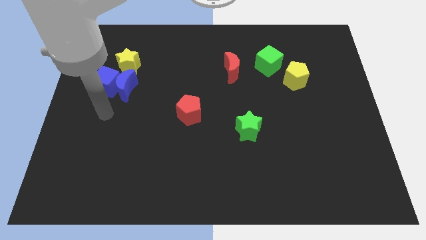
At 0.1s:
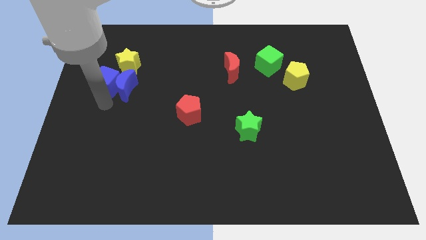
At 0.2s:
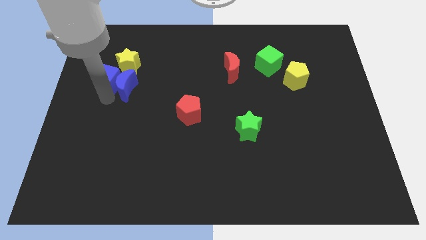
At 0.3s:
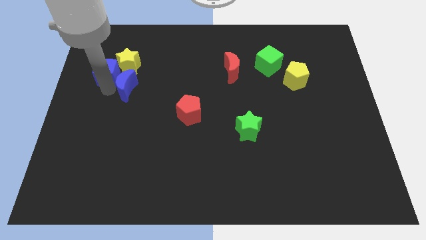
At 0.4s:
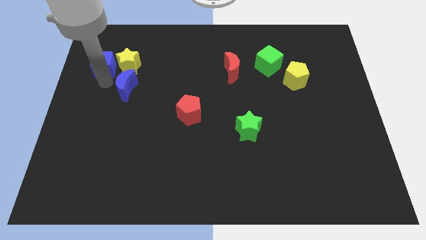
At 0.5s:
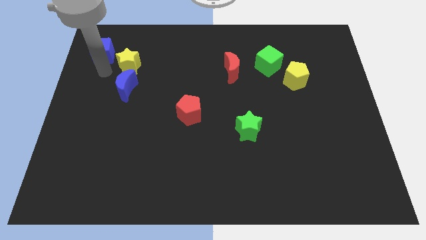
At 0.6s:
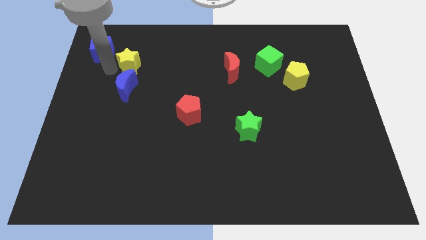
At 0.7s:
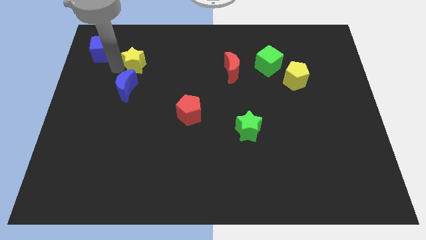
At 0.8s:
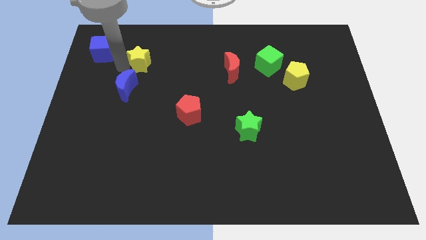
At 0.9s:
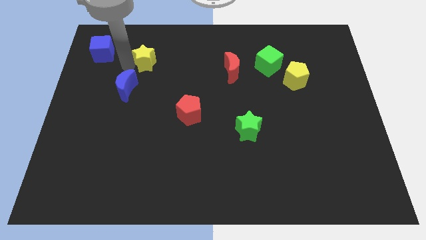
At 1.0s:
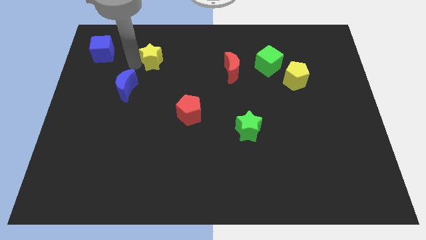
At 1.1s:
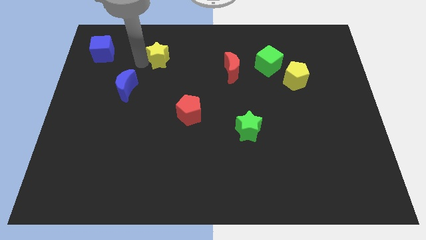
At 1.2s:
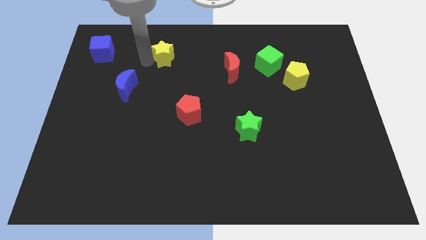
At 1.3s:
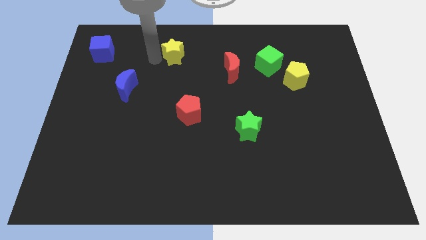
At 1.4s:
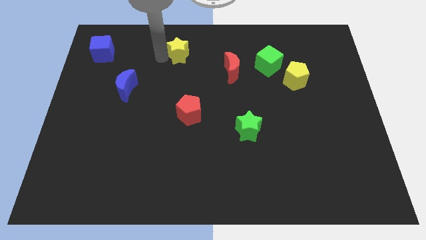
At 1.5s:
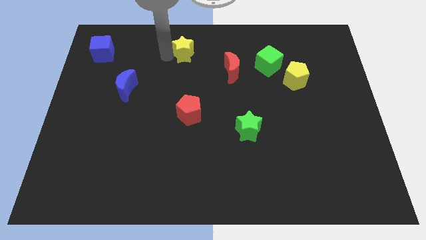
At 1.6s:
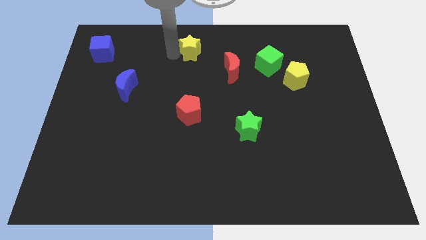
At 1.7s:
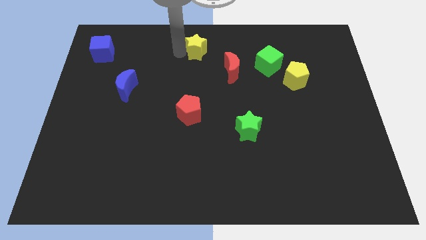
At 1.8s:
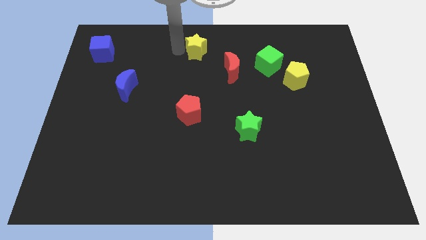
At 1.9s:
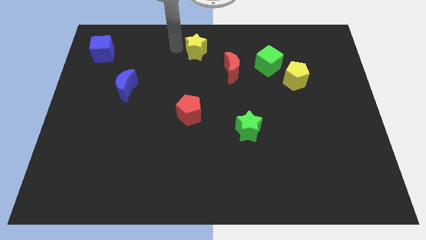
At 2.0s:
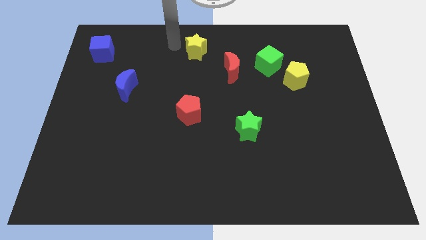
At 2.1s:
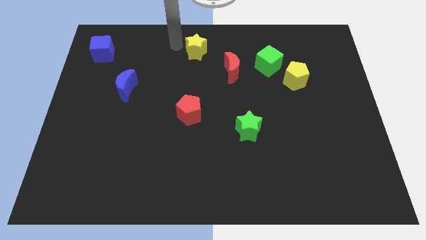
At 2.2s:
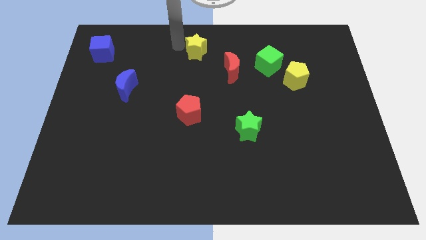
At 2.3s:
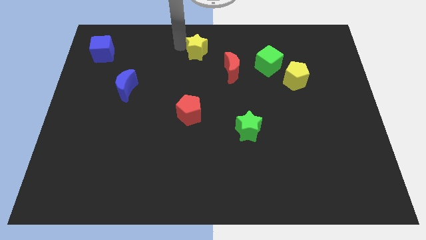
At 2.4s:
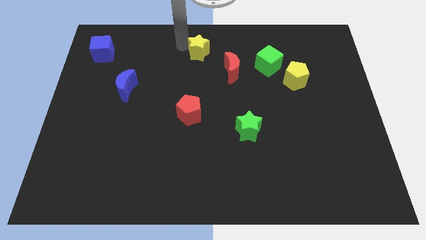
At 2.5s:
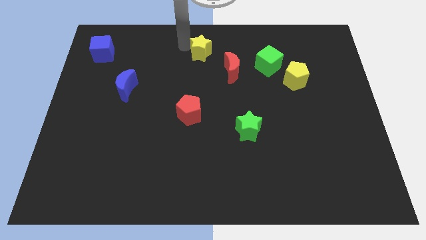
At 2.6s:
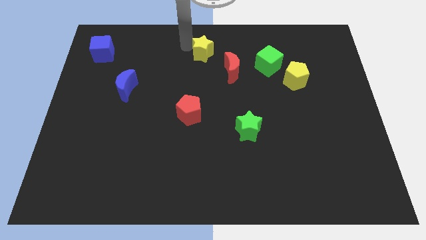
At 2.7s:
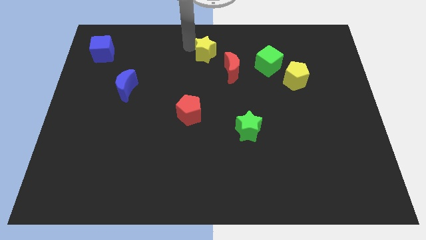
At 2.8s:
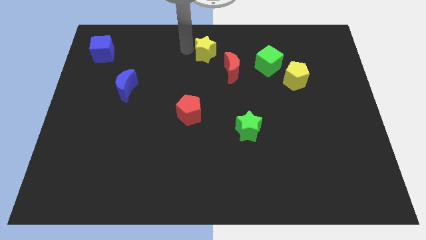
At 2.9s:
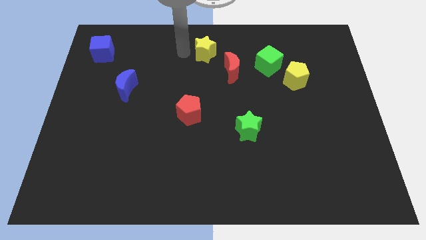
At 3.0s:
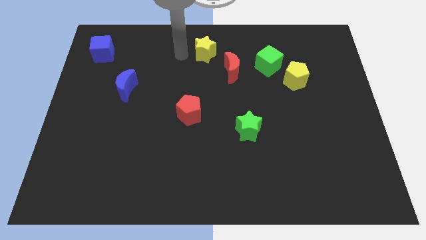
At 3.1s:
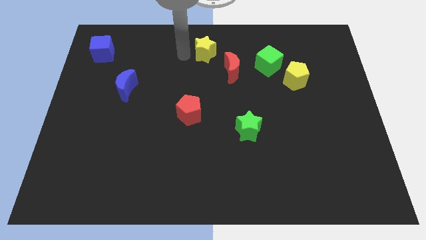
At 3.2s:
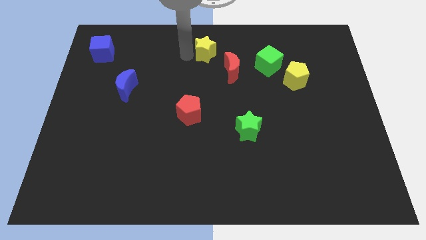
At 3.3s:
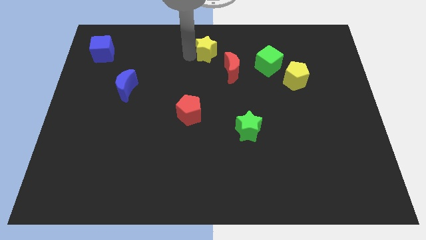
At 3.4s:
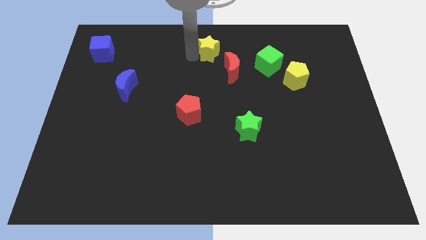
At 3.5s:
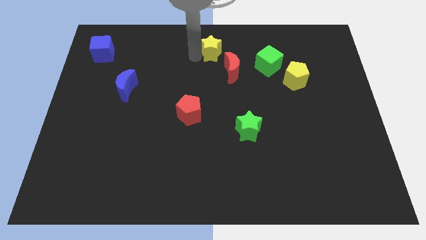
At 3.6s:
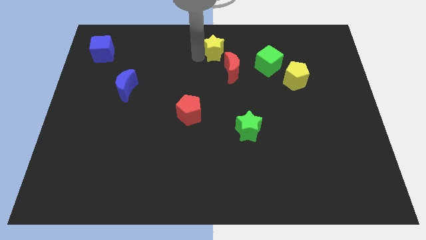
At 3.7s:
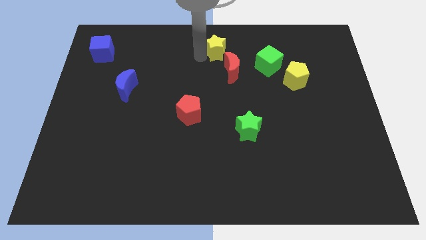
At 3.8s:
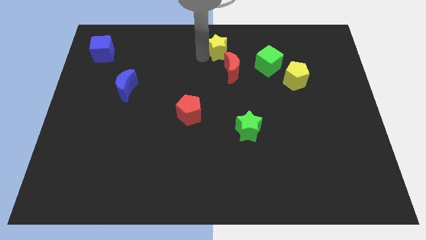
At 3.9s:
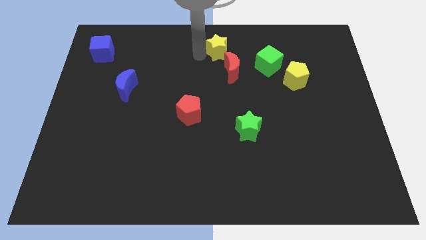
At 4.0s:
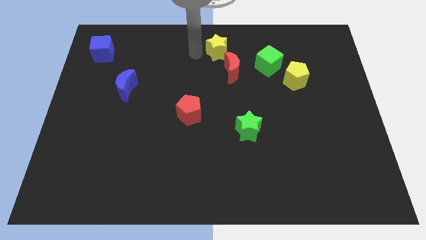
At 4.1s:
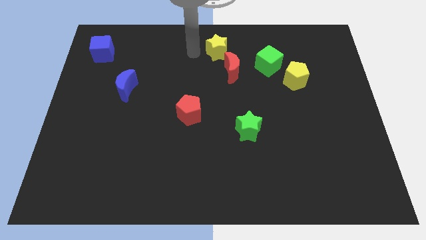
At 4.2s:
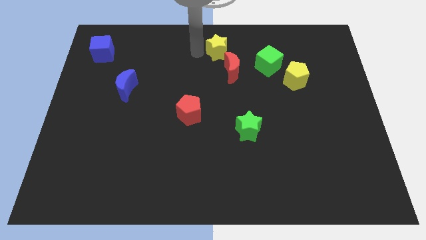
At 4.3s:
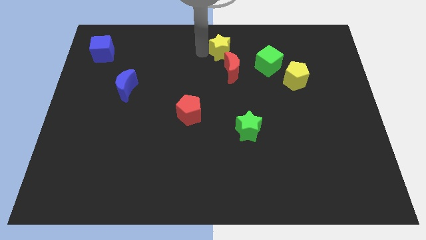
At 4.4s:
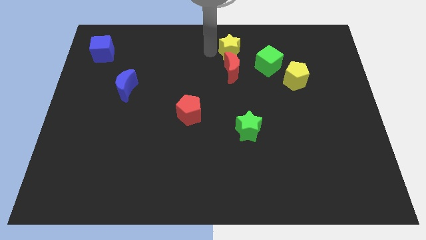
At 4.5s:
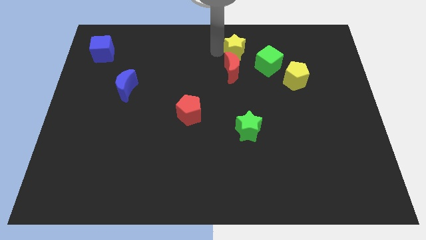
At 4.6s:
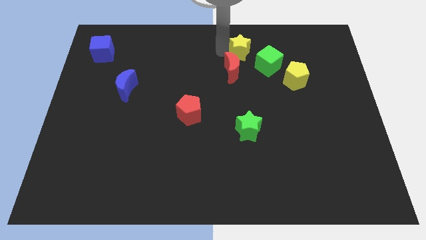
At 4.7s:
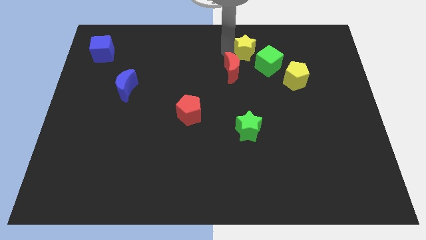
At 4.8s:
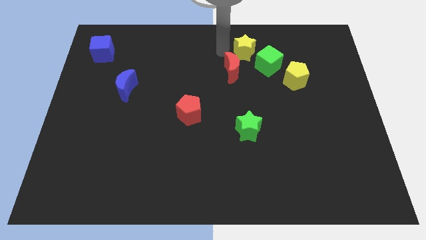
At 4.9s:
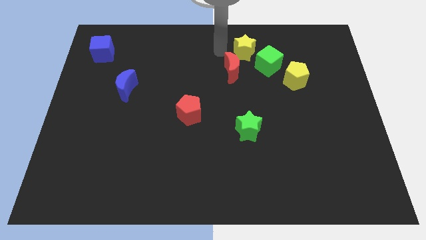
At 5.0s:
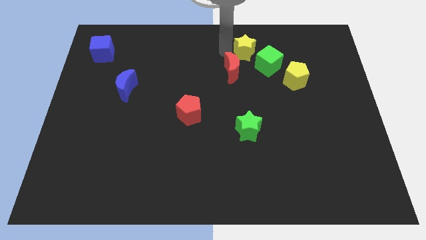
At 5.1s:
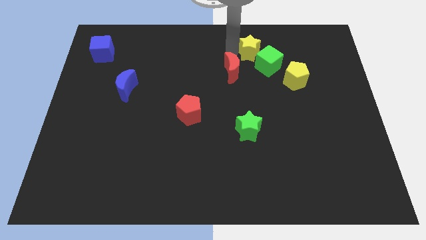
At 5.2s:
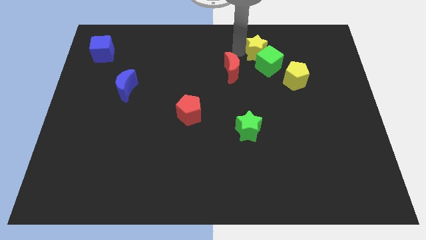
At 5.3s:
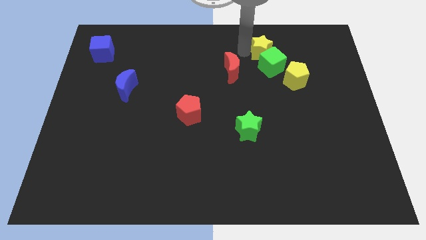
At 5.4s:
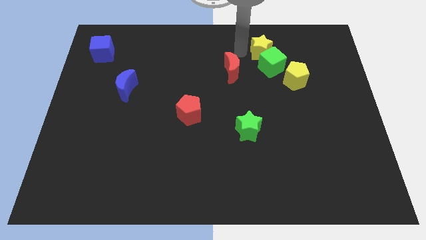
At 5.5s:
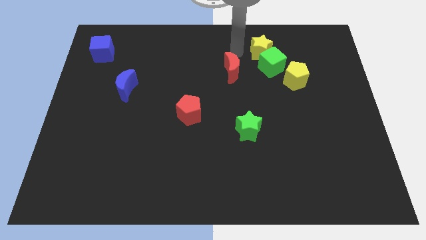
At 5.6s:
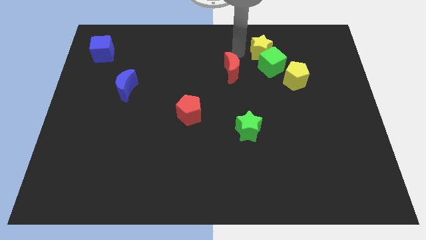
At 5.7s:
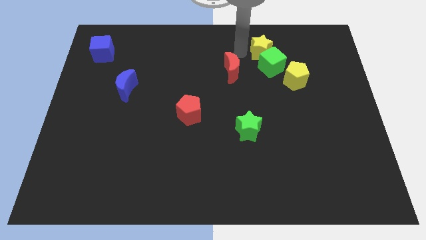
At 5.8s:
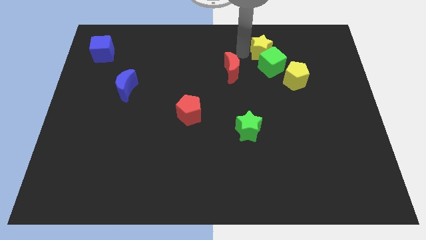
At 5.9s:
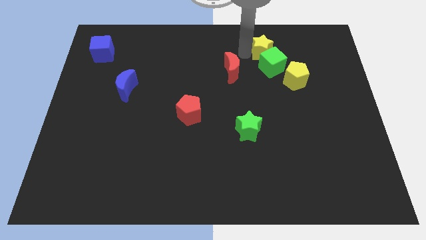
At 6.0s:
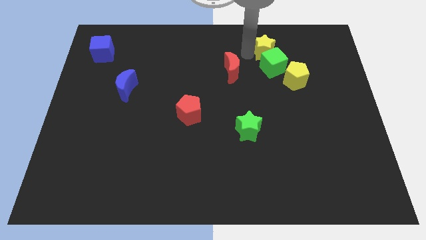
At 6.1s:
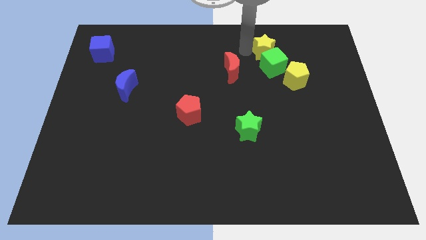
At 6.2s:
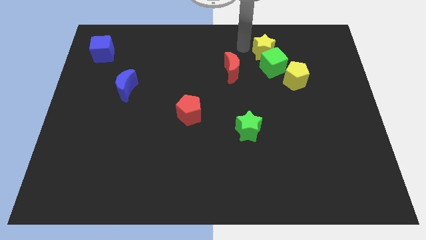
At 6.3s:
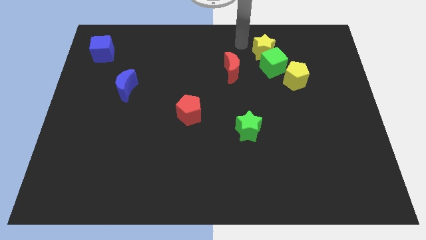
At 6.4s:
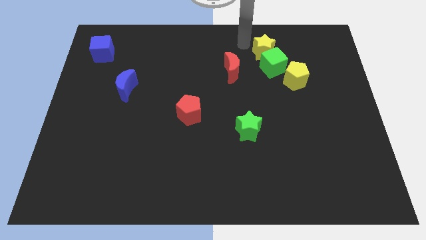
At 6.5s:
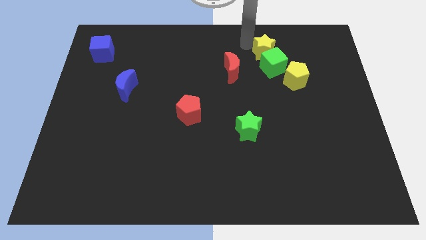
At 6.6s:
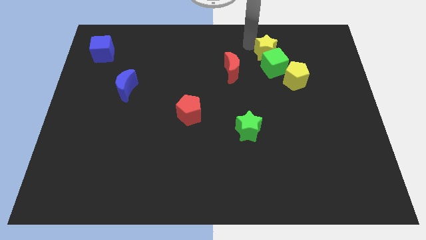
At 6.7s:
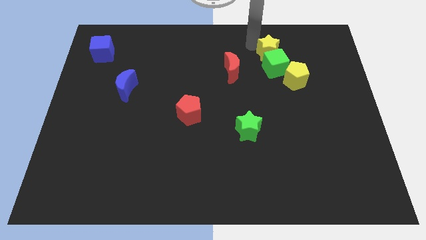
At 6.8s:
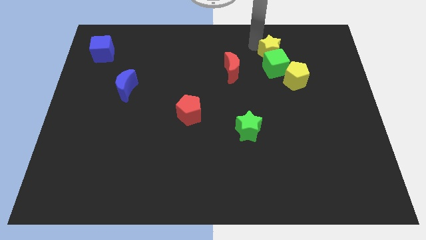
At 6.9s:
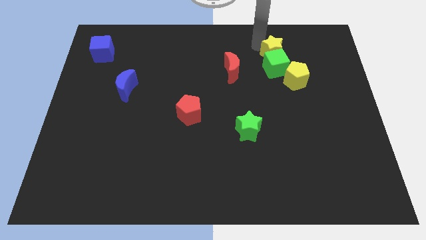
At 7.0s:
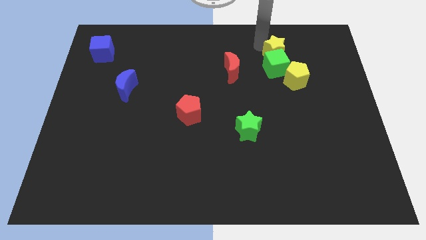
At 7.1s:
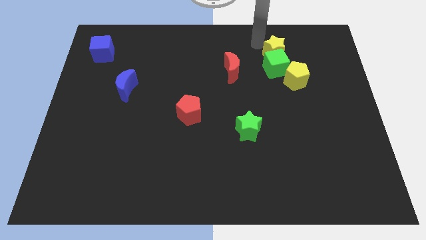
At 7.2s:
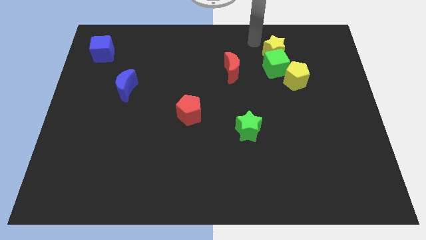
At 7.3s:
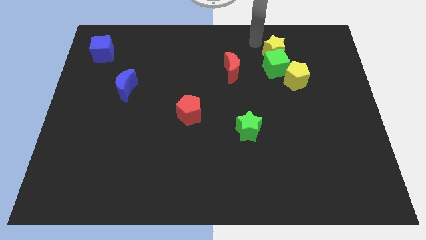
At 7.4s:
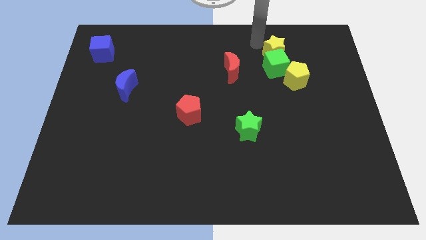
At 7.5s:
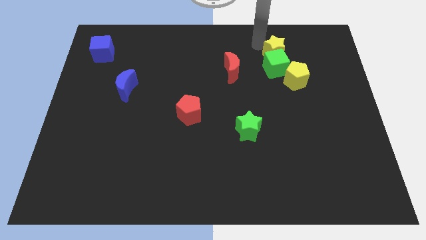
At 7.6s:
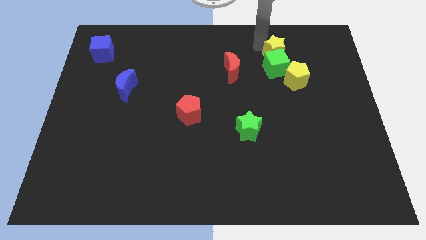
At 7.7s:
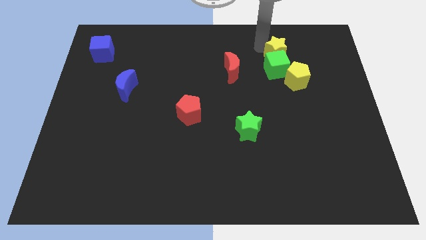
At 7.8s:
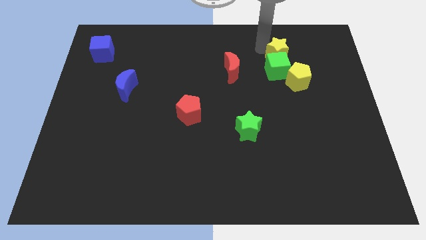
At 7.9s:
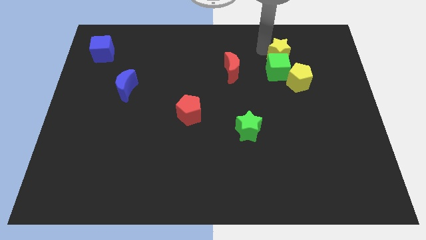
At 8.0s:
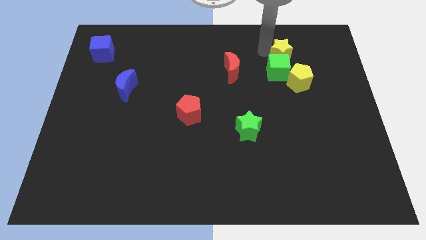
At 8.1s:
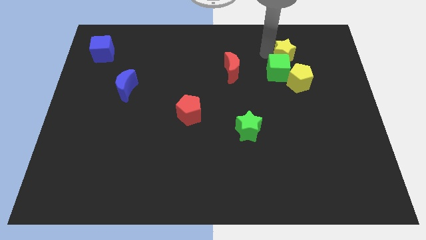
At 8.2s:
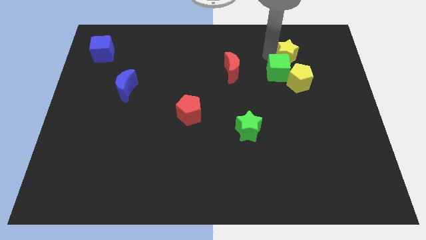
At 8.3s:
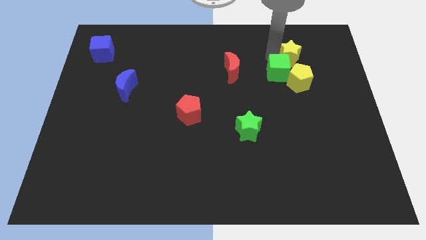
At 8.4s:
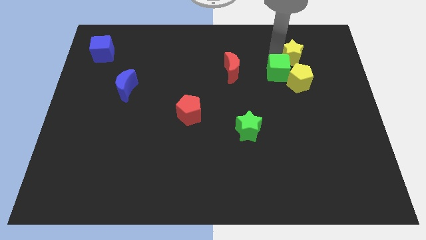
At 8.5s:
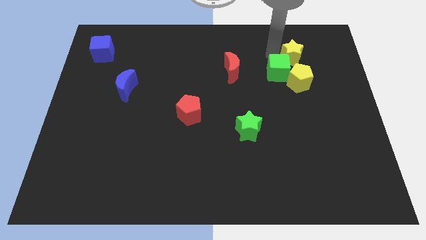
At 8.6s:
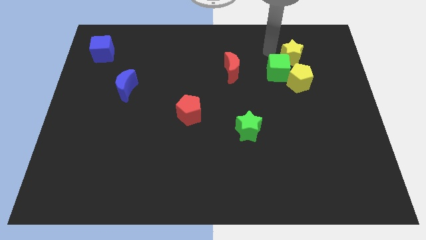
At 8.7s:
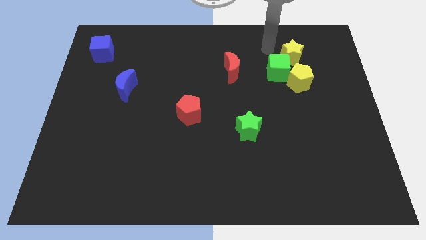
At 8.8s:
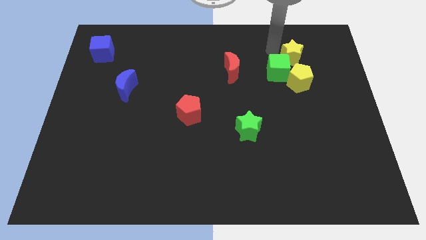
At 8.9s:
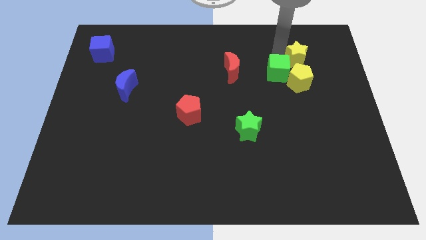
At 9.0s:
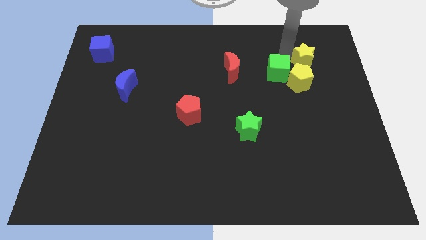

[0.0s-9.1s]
move the yellow star diagonally up and to the right of the yellow pentagon
